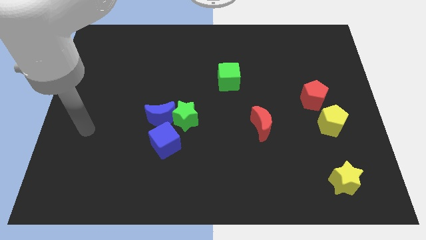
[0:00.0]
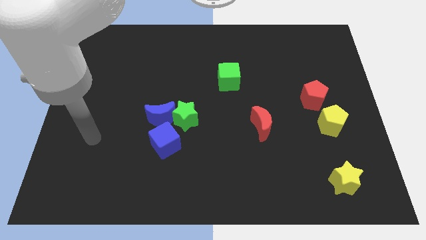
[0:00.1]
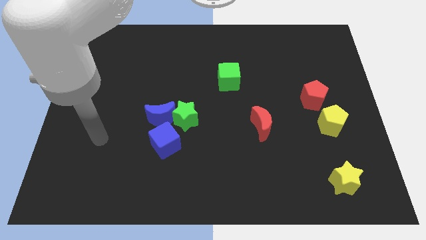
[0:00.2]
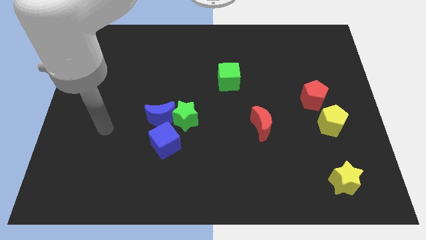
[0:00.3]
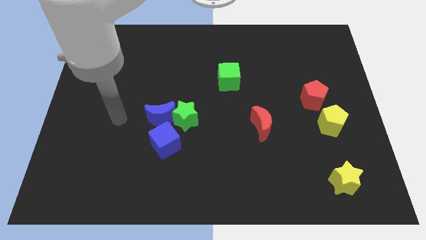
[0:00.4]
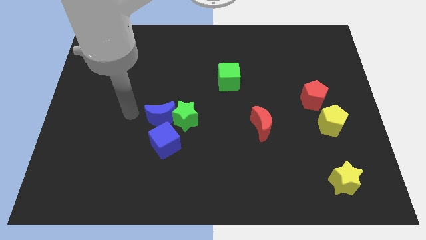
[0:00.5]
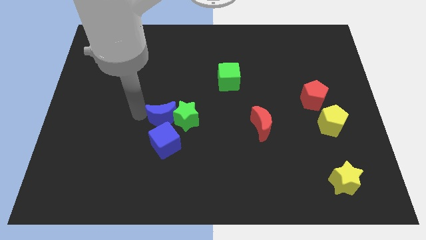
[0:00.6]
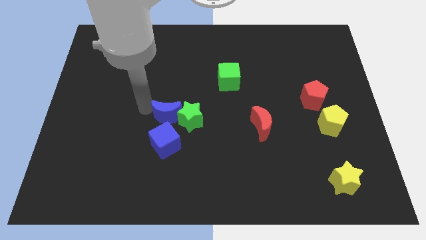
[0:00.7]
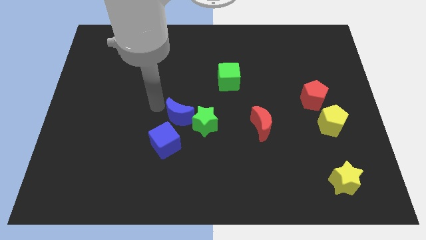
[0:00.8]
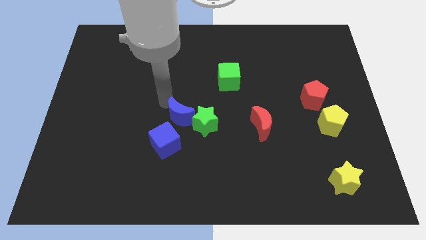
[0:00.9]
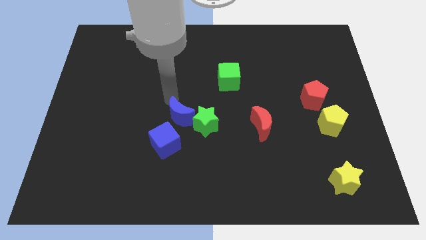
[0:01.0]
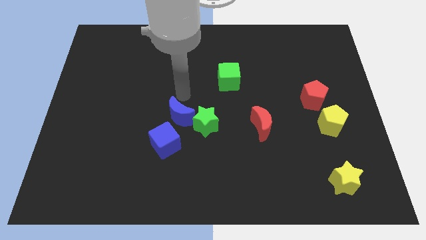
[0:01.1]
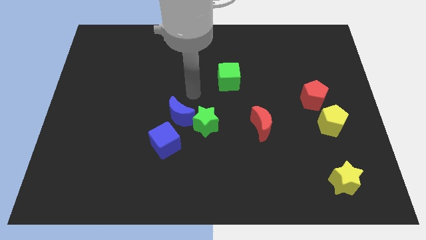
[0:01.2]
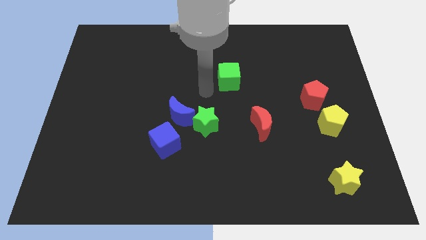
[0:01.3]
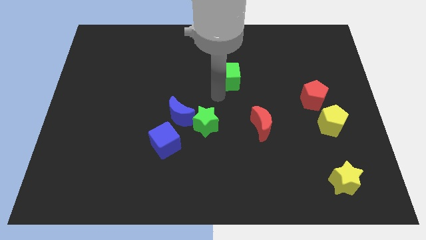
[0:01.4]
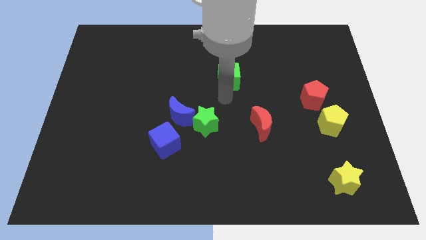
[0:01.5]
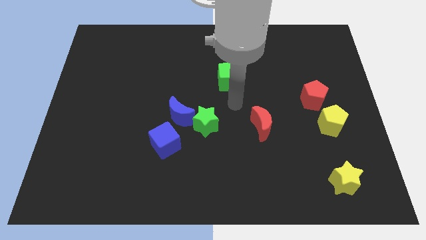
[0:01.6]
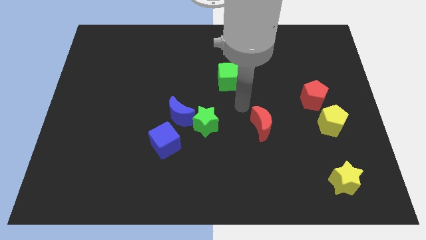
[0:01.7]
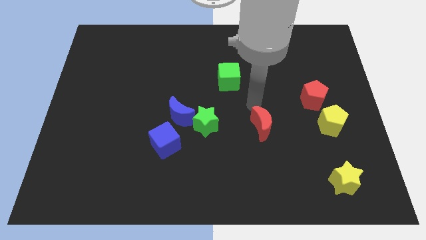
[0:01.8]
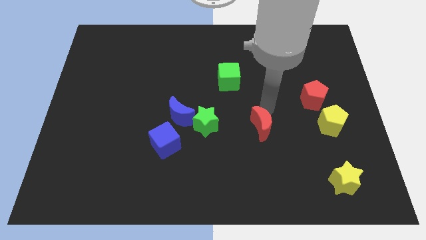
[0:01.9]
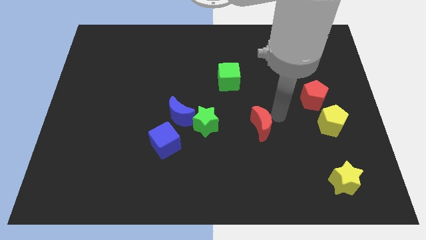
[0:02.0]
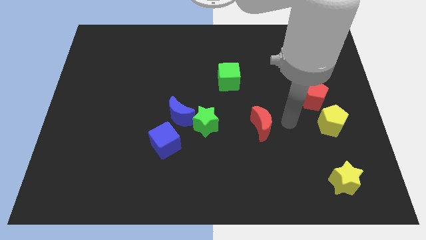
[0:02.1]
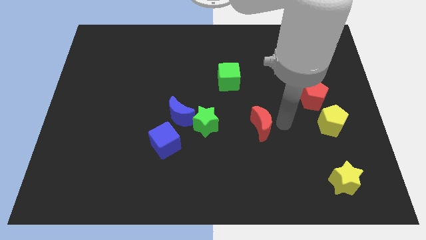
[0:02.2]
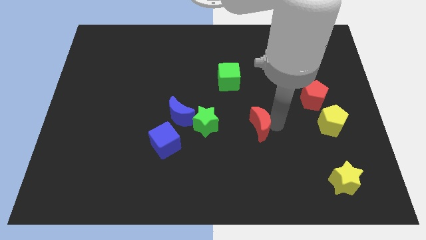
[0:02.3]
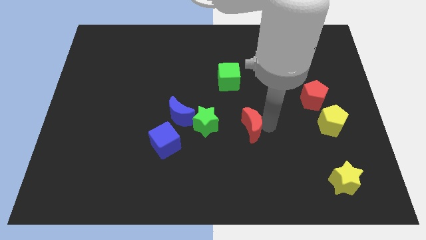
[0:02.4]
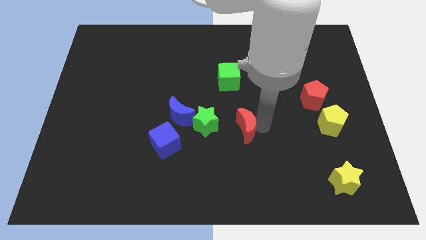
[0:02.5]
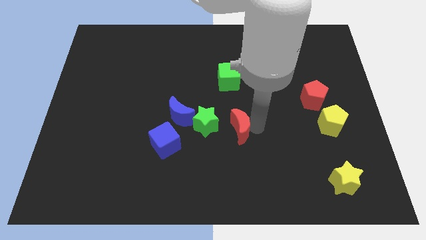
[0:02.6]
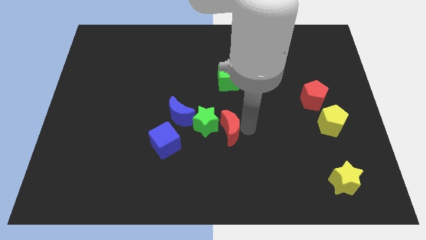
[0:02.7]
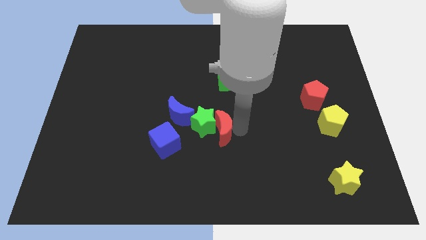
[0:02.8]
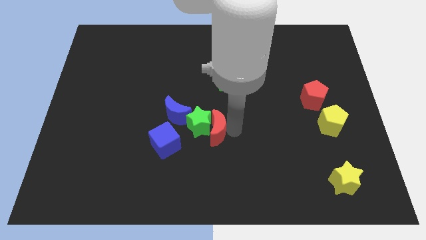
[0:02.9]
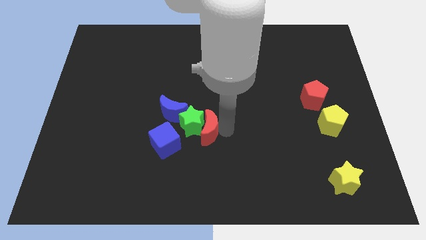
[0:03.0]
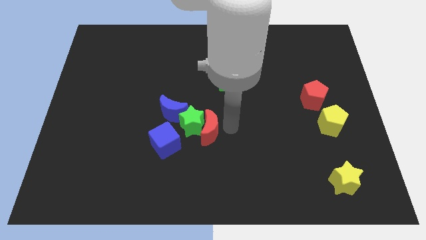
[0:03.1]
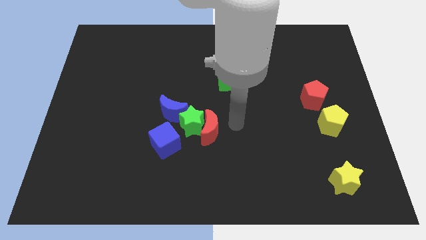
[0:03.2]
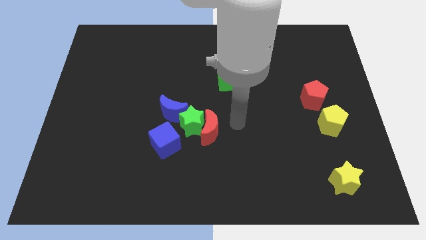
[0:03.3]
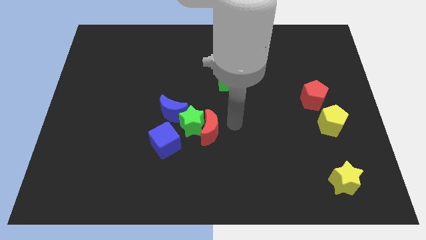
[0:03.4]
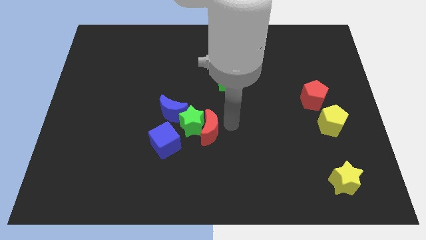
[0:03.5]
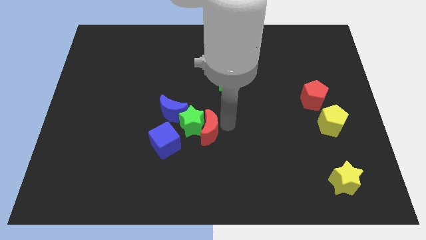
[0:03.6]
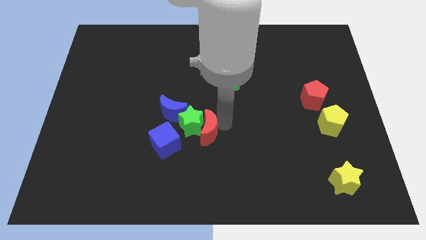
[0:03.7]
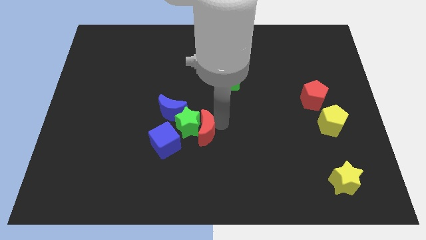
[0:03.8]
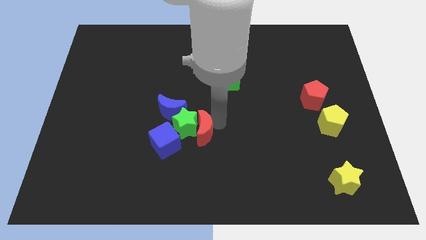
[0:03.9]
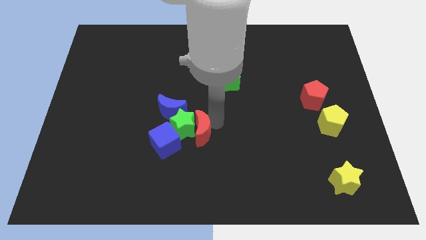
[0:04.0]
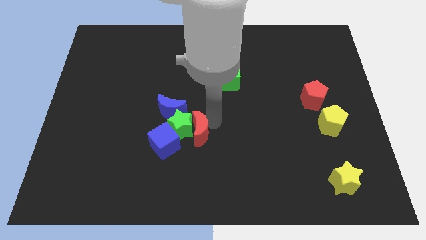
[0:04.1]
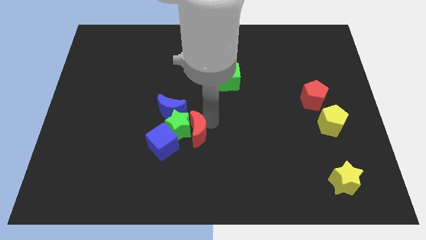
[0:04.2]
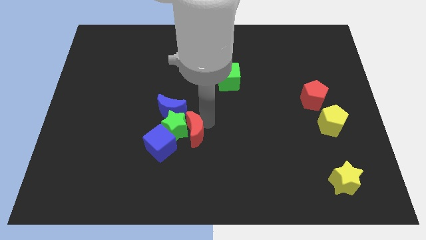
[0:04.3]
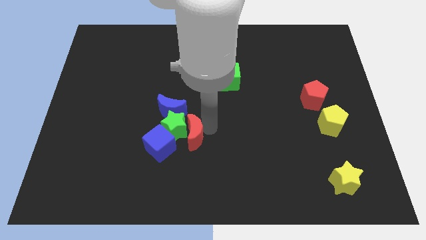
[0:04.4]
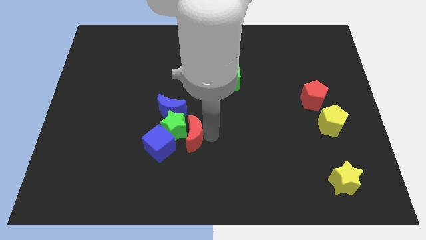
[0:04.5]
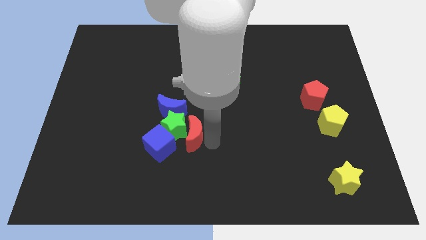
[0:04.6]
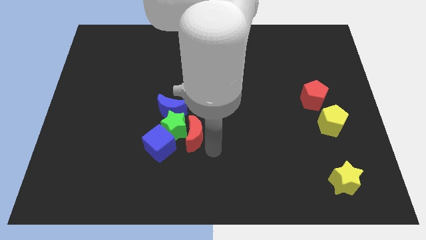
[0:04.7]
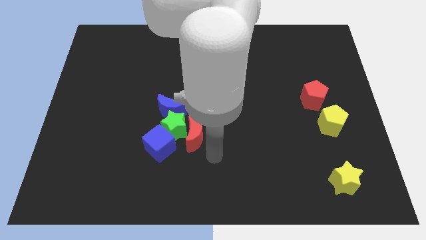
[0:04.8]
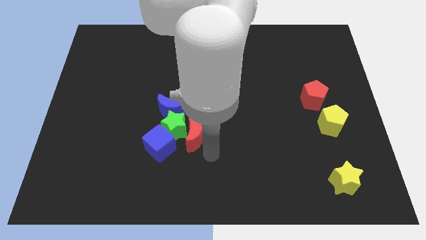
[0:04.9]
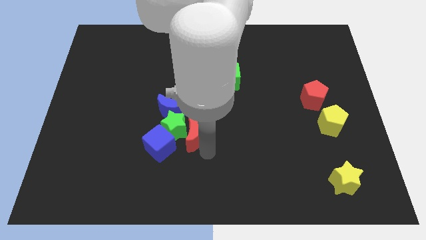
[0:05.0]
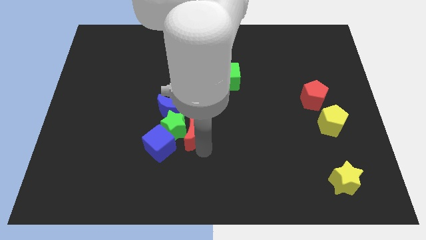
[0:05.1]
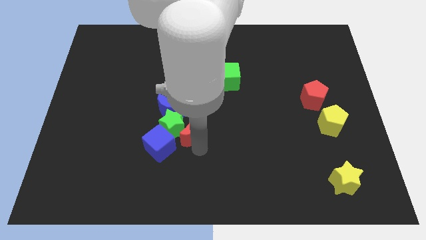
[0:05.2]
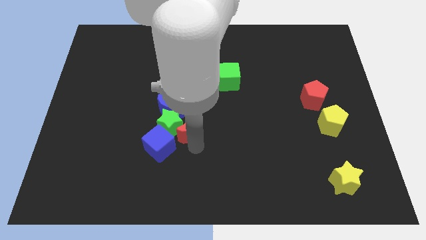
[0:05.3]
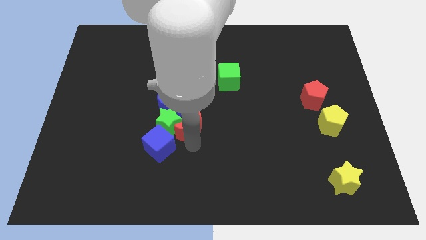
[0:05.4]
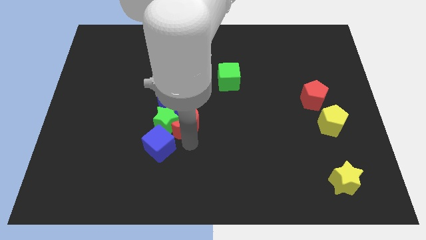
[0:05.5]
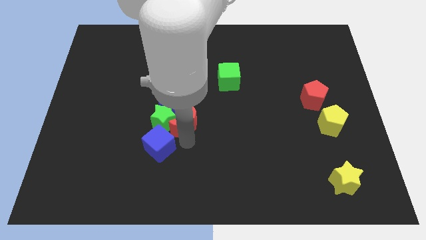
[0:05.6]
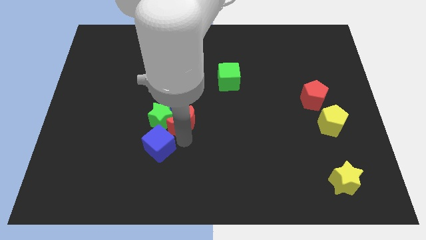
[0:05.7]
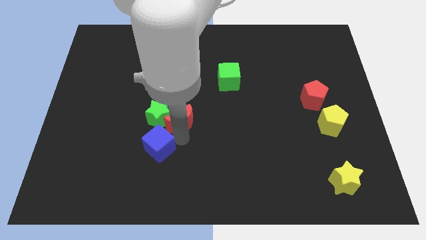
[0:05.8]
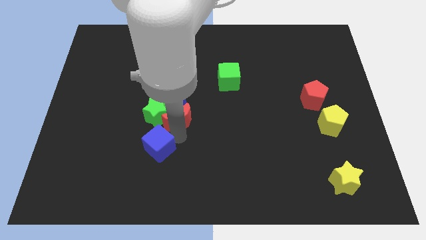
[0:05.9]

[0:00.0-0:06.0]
push the red moon next to the blue moon

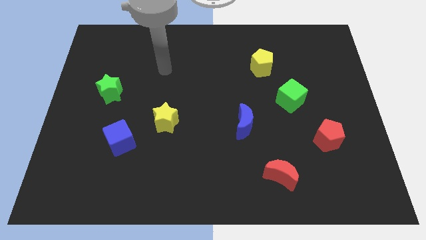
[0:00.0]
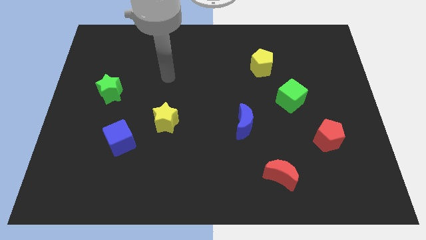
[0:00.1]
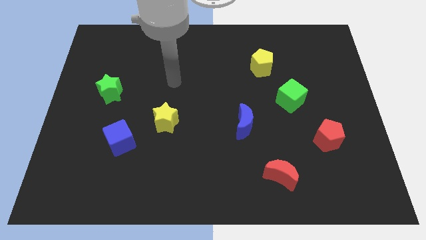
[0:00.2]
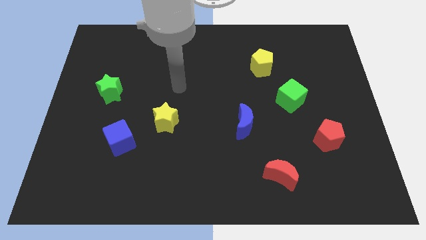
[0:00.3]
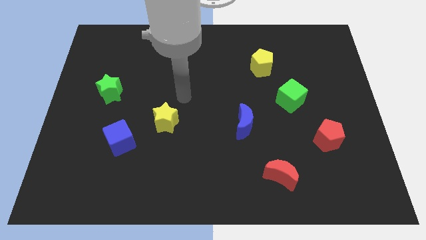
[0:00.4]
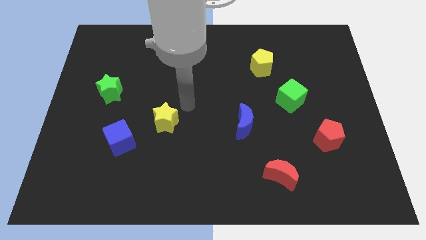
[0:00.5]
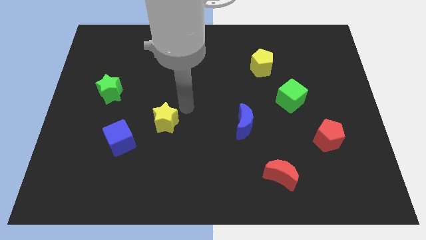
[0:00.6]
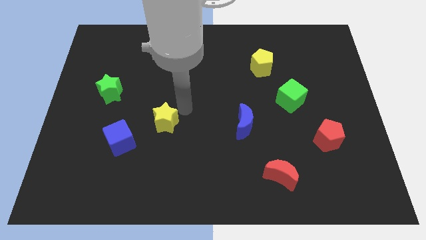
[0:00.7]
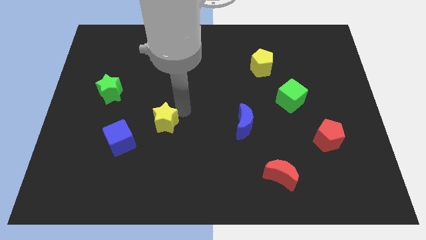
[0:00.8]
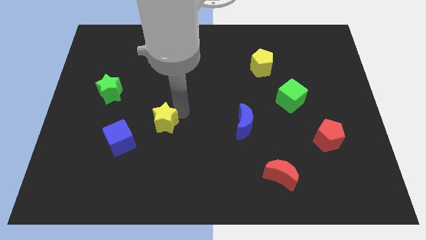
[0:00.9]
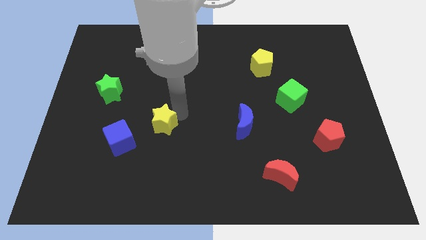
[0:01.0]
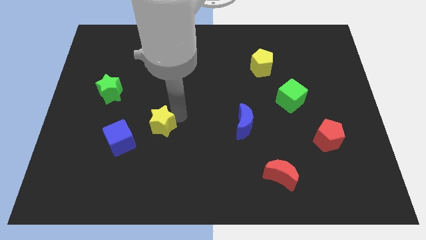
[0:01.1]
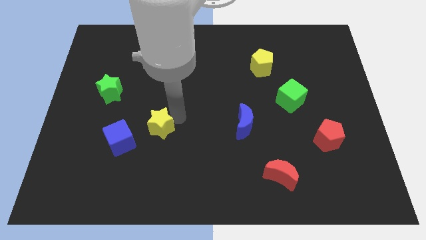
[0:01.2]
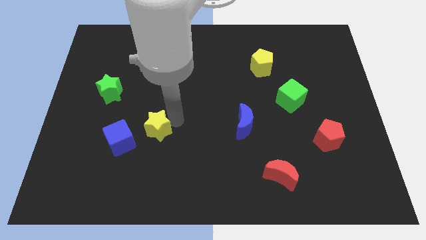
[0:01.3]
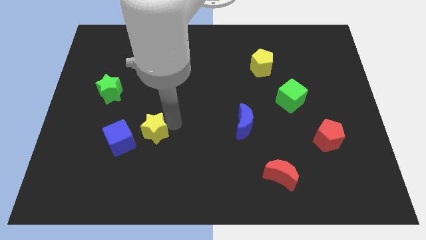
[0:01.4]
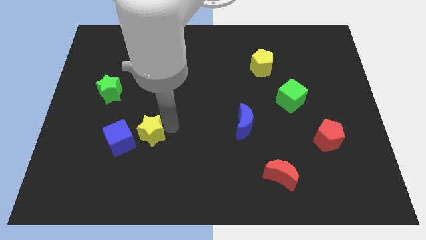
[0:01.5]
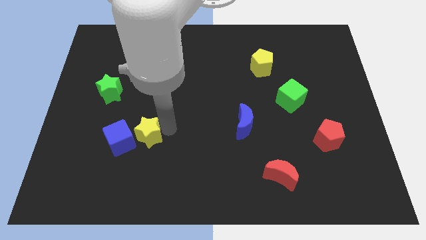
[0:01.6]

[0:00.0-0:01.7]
slide the yellow star close to the blue cube
